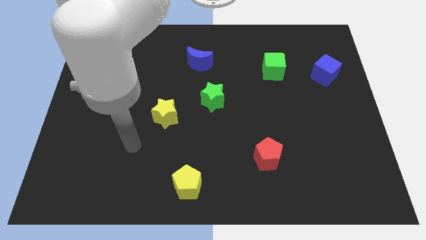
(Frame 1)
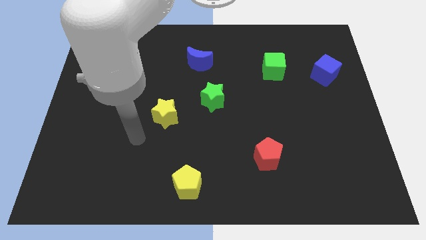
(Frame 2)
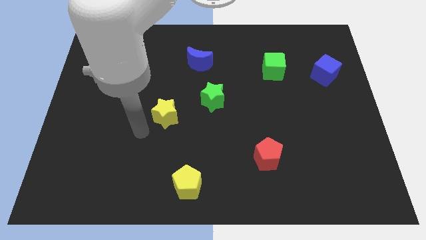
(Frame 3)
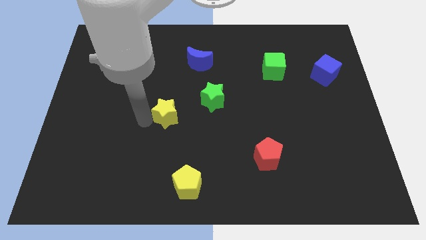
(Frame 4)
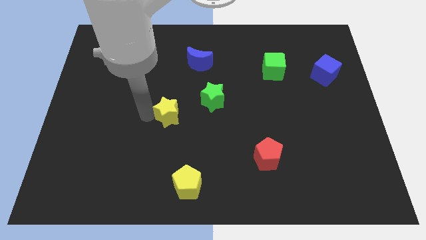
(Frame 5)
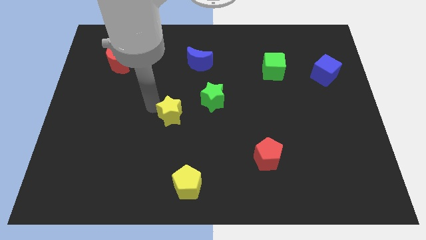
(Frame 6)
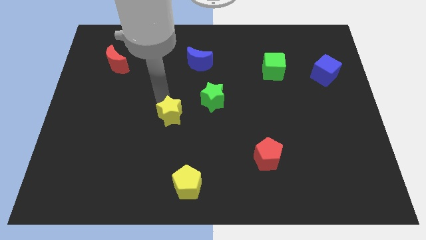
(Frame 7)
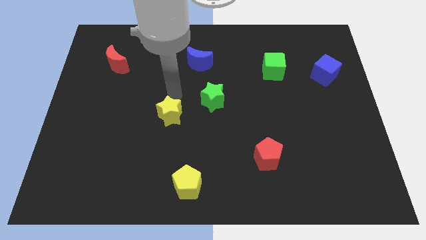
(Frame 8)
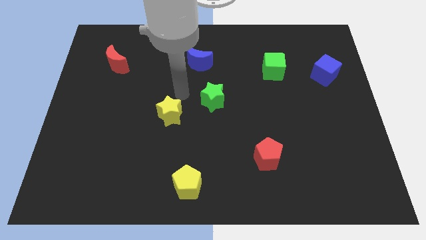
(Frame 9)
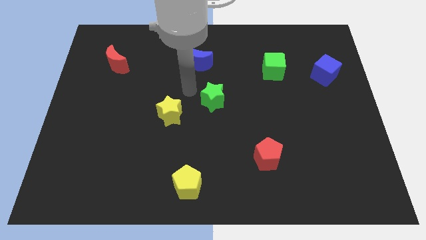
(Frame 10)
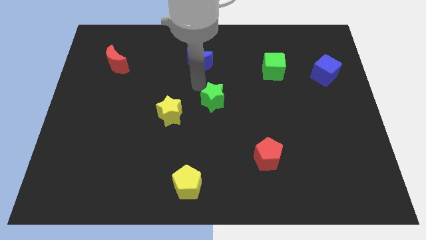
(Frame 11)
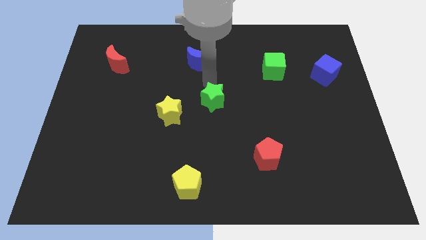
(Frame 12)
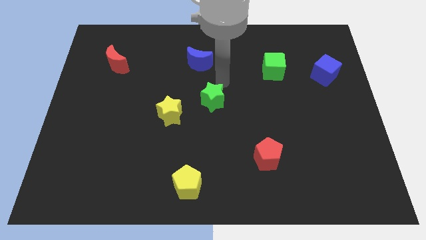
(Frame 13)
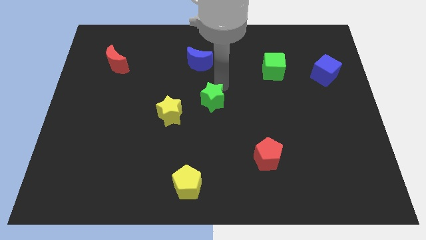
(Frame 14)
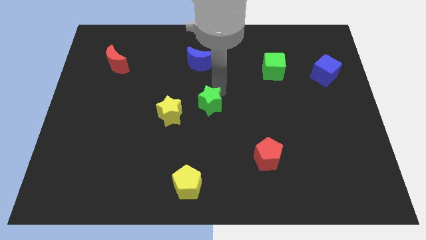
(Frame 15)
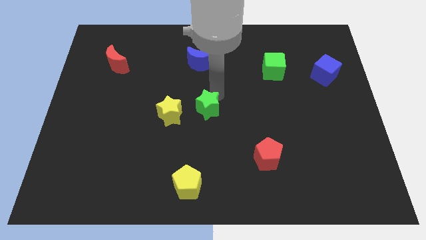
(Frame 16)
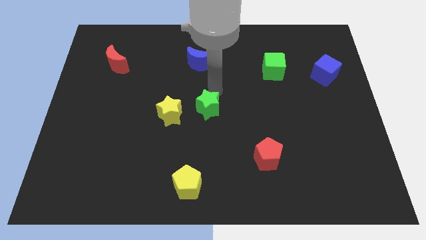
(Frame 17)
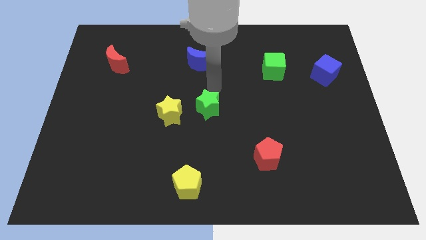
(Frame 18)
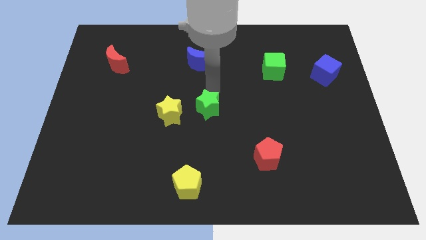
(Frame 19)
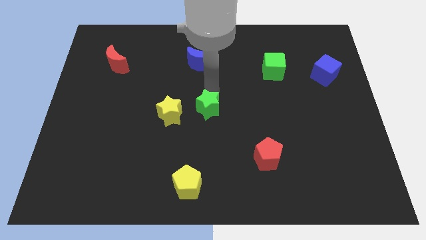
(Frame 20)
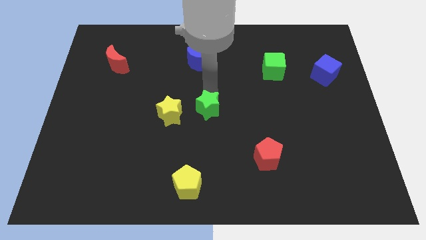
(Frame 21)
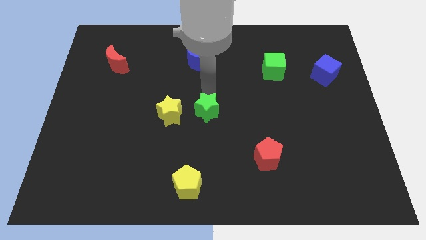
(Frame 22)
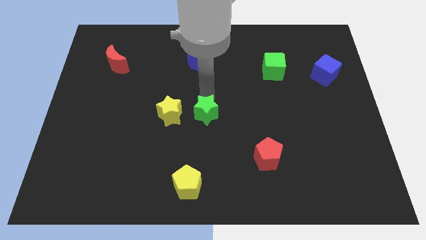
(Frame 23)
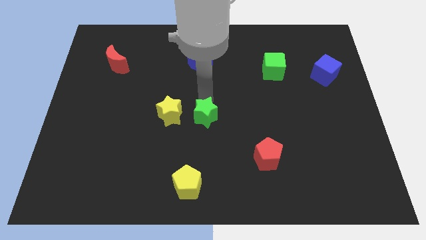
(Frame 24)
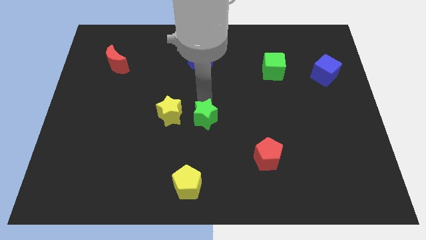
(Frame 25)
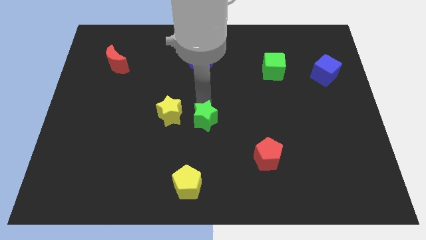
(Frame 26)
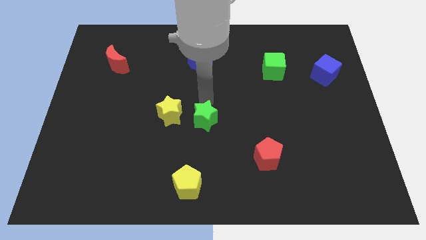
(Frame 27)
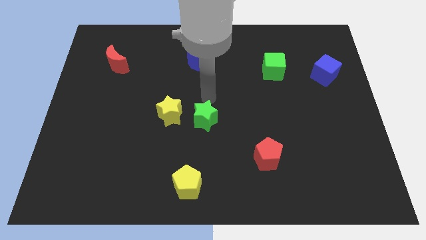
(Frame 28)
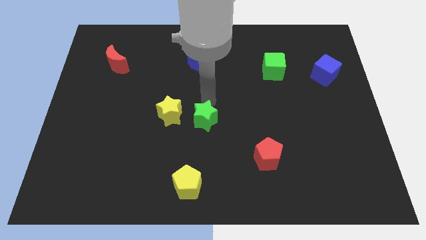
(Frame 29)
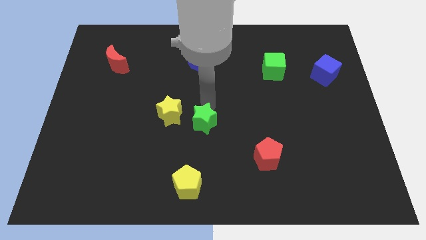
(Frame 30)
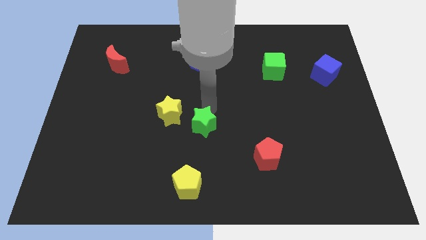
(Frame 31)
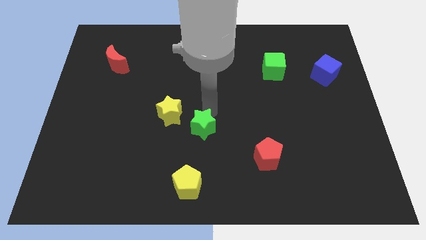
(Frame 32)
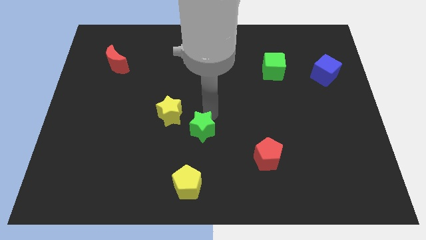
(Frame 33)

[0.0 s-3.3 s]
slightly push the green star downwards and left

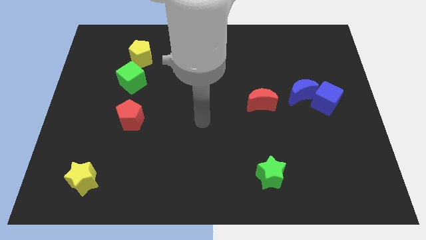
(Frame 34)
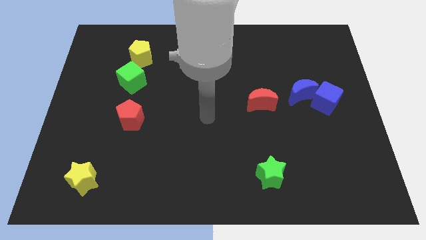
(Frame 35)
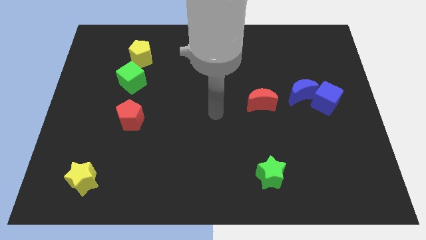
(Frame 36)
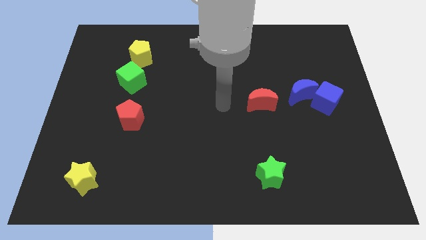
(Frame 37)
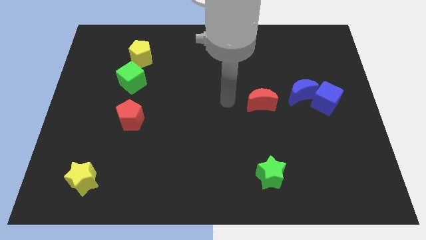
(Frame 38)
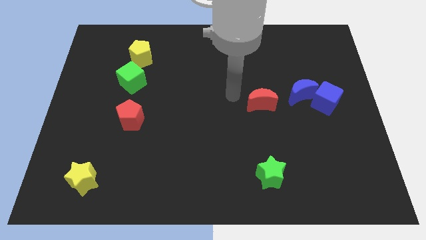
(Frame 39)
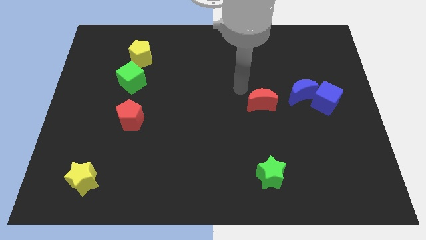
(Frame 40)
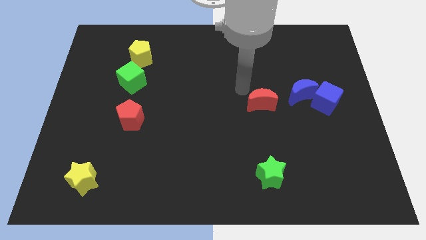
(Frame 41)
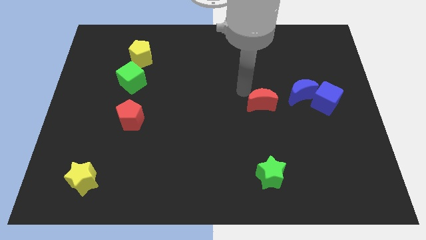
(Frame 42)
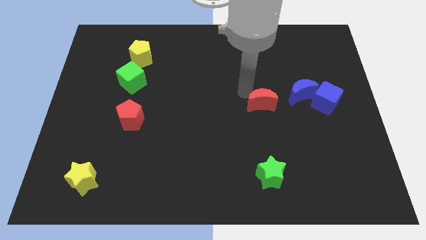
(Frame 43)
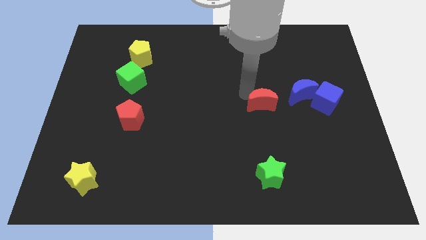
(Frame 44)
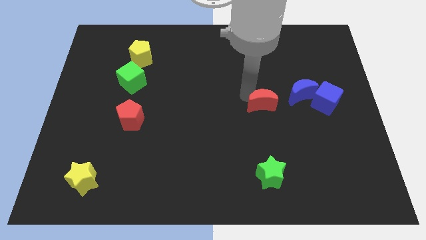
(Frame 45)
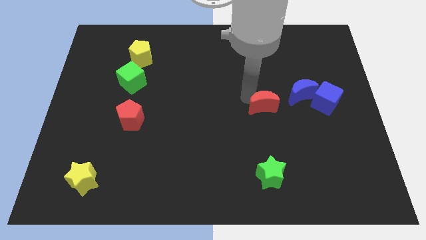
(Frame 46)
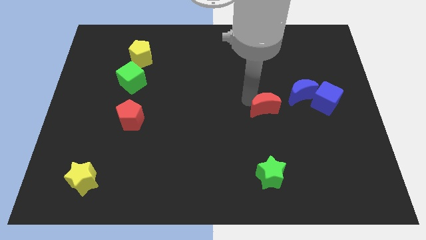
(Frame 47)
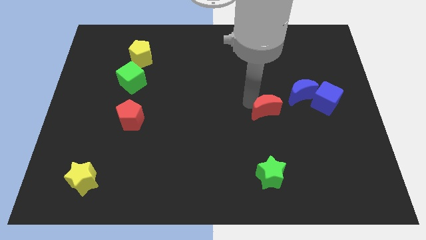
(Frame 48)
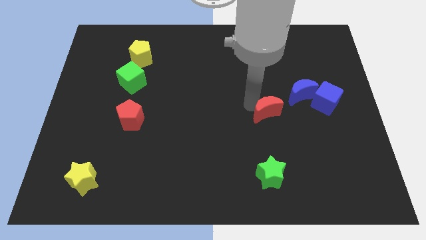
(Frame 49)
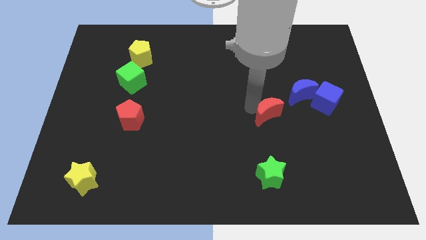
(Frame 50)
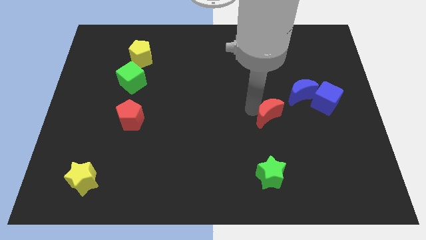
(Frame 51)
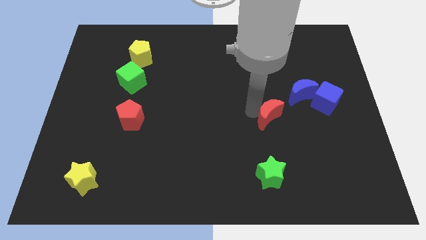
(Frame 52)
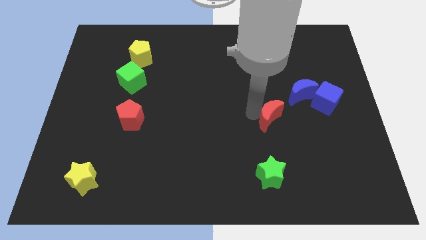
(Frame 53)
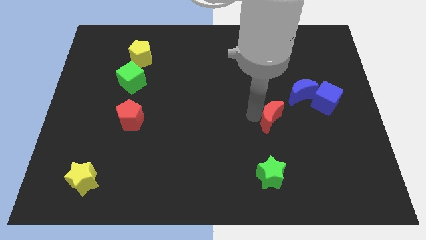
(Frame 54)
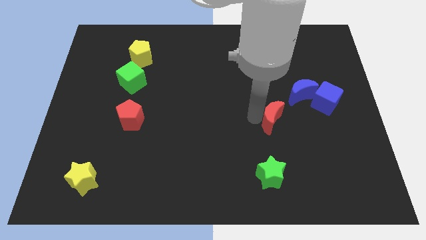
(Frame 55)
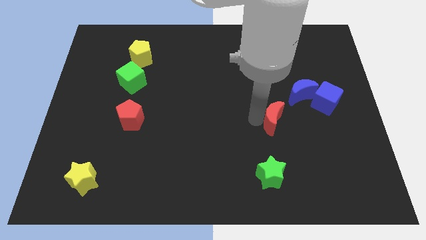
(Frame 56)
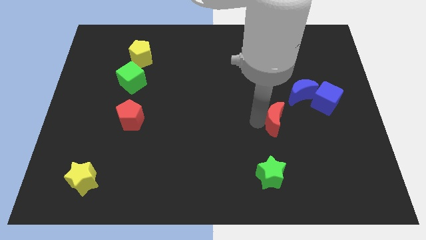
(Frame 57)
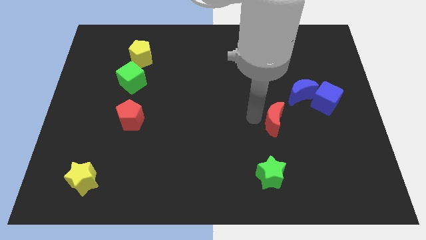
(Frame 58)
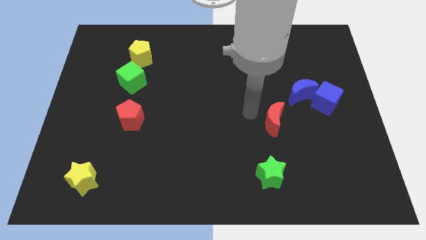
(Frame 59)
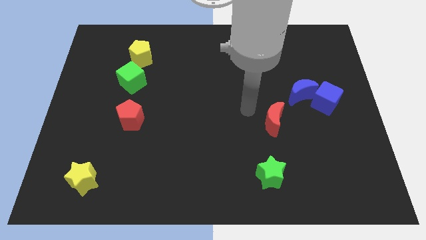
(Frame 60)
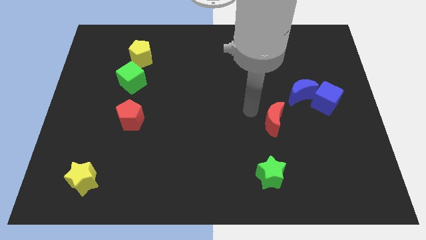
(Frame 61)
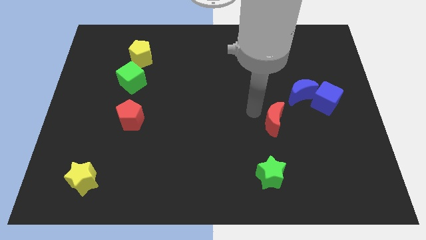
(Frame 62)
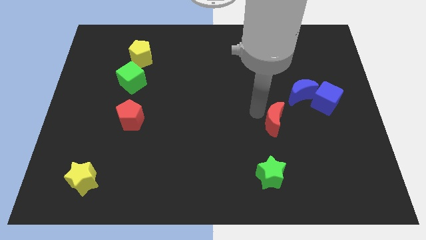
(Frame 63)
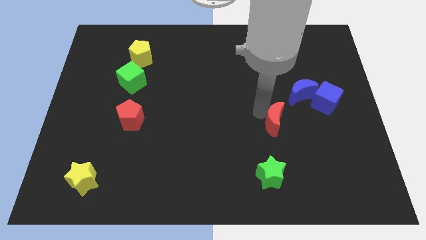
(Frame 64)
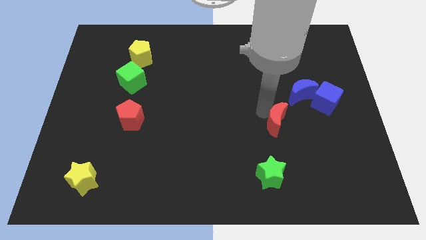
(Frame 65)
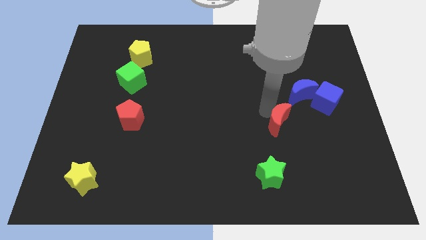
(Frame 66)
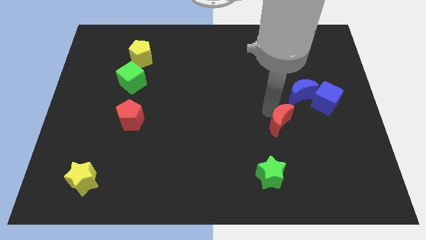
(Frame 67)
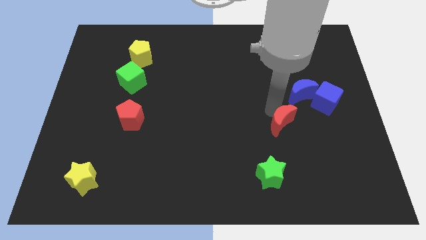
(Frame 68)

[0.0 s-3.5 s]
push the red moon down and right a bit

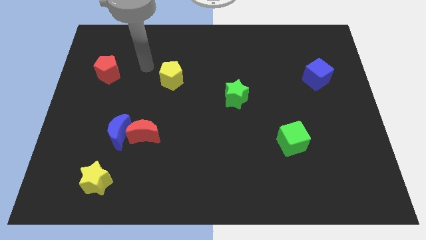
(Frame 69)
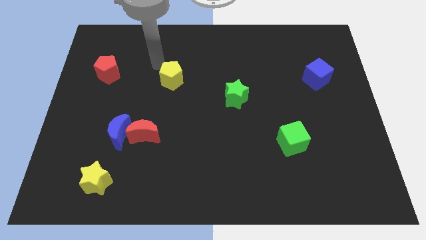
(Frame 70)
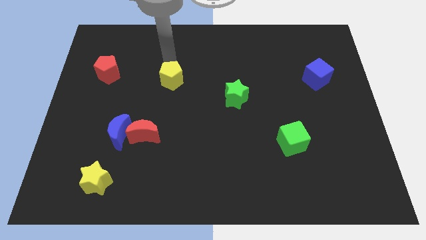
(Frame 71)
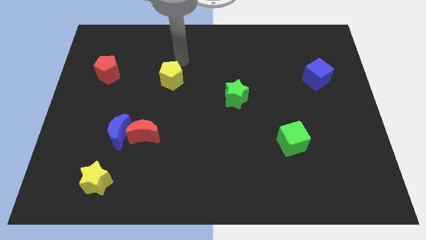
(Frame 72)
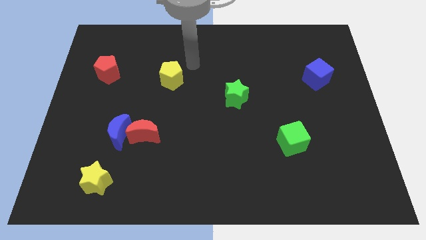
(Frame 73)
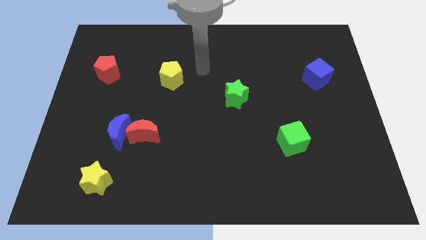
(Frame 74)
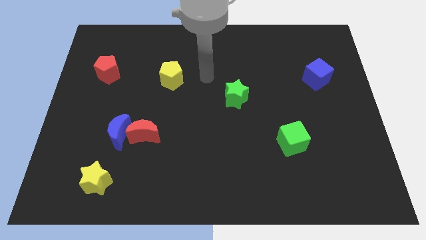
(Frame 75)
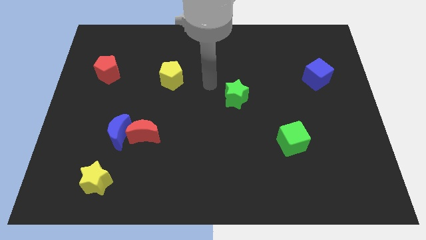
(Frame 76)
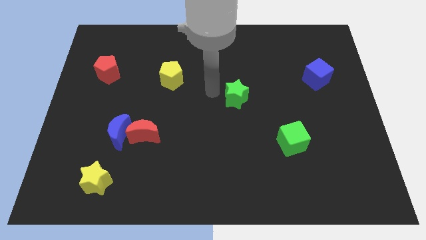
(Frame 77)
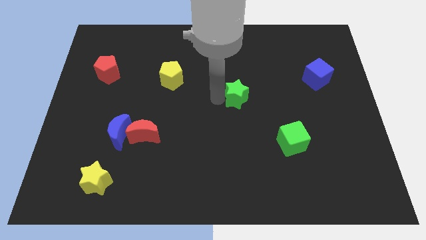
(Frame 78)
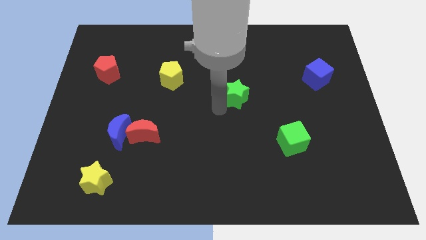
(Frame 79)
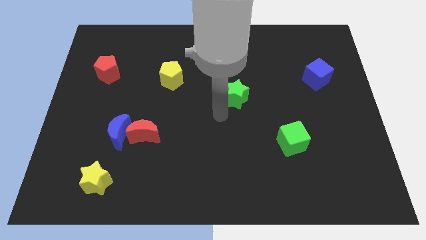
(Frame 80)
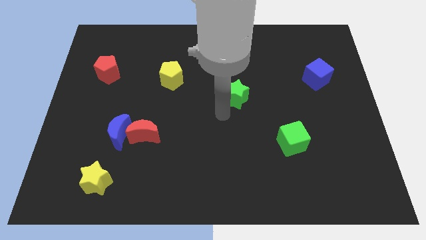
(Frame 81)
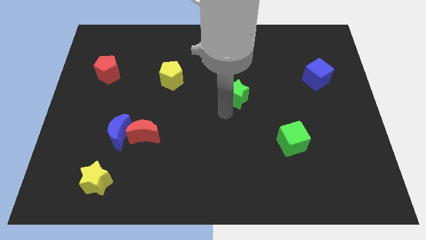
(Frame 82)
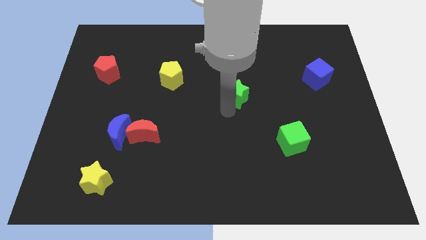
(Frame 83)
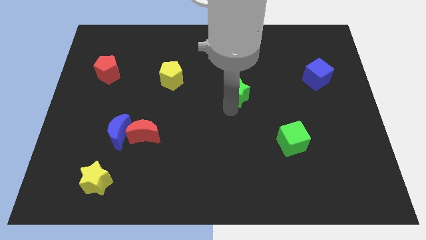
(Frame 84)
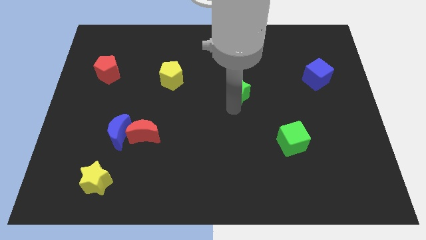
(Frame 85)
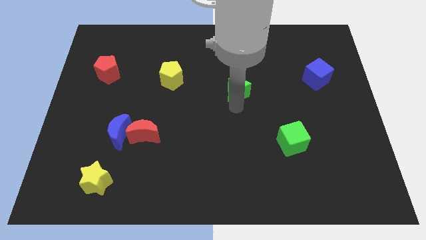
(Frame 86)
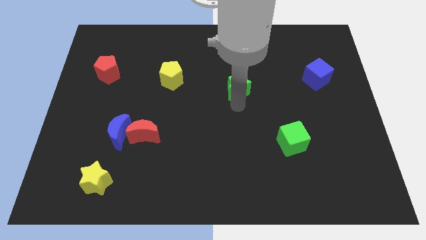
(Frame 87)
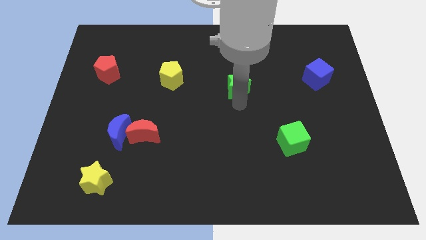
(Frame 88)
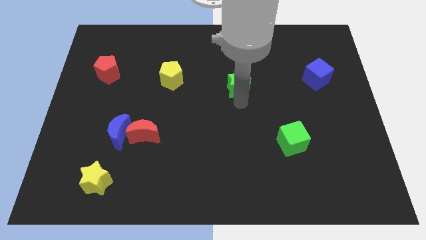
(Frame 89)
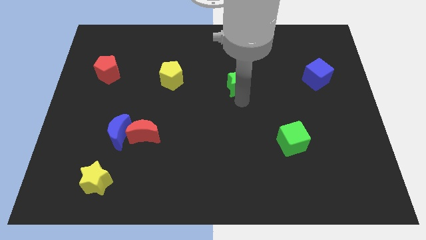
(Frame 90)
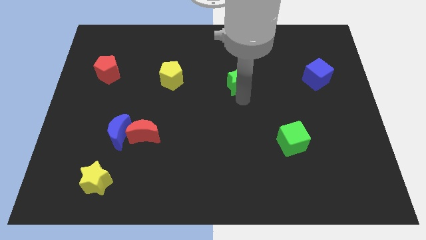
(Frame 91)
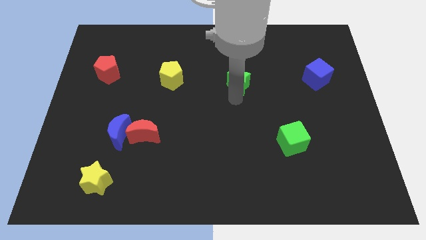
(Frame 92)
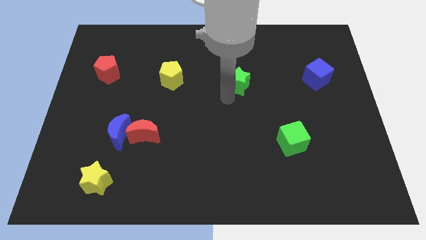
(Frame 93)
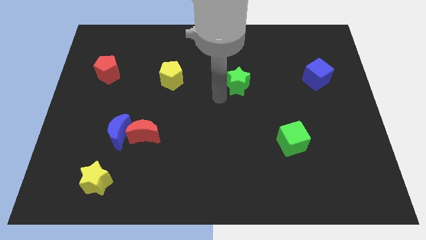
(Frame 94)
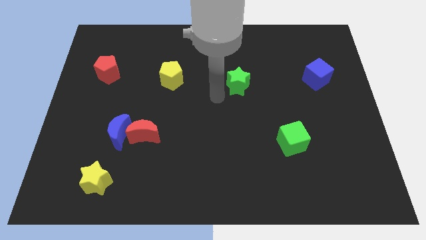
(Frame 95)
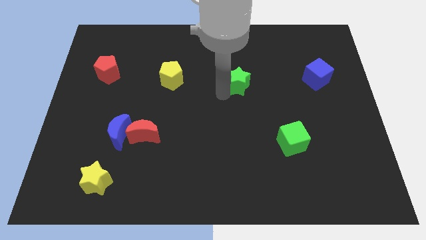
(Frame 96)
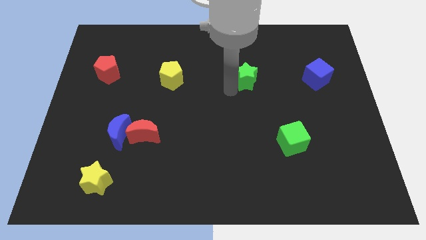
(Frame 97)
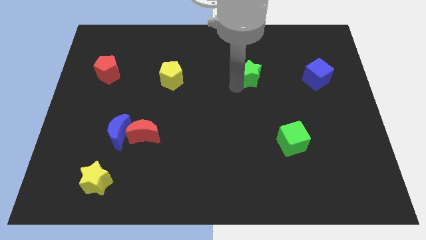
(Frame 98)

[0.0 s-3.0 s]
slightly move the green star up and then to the right
